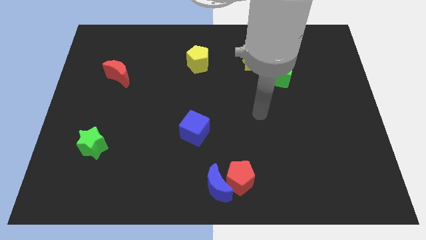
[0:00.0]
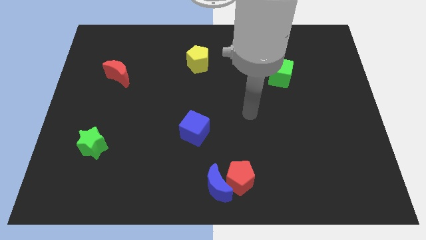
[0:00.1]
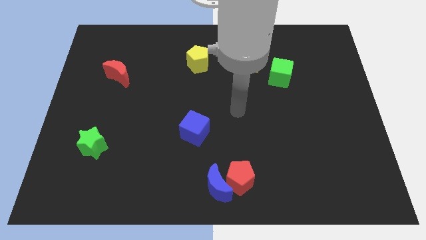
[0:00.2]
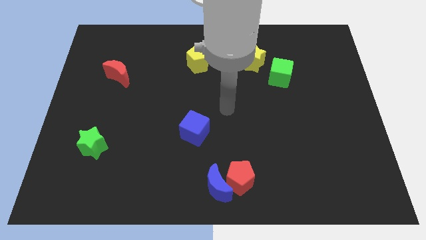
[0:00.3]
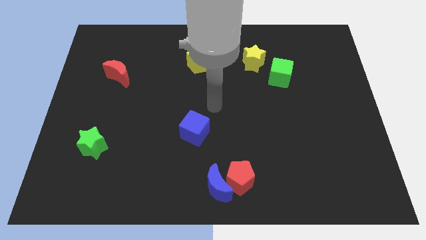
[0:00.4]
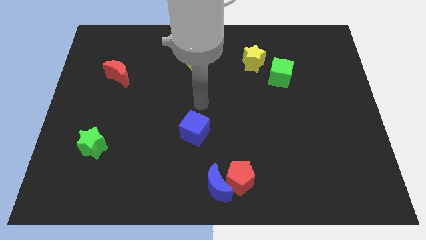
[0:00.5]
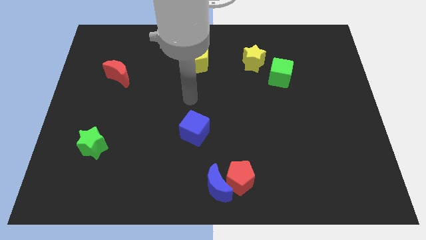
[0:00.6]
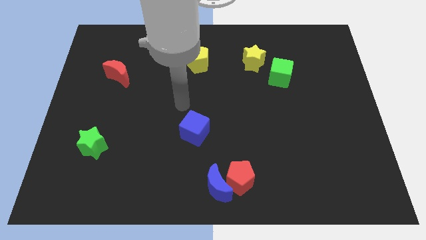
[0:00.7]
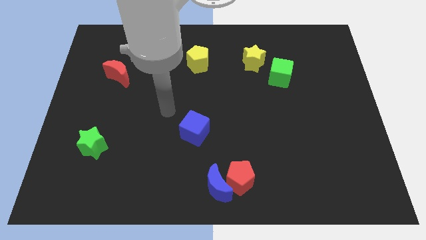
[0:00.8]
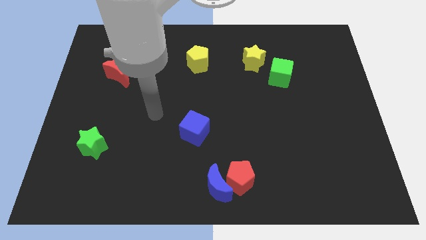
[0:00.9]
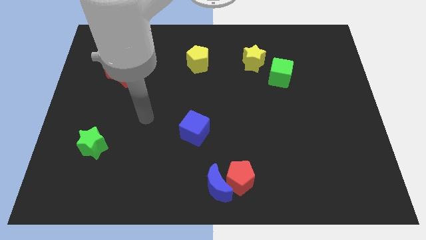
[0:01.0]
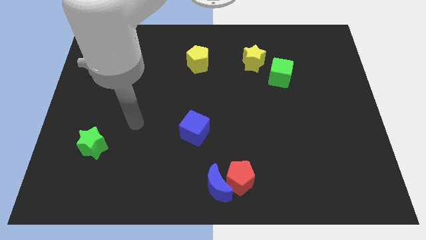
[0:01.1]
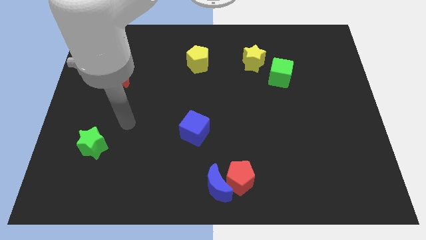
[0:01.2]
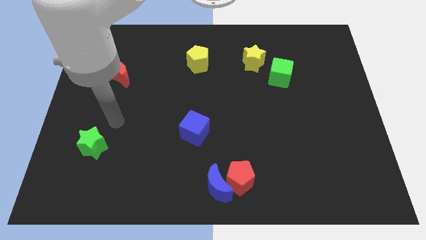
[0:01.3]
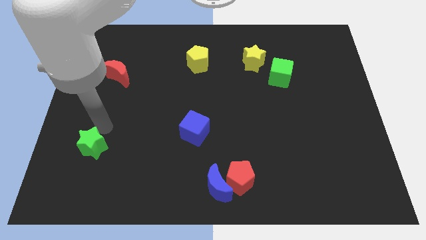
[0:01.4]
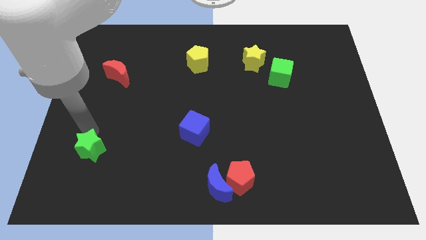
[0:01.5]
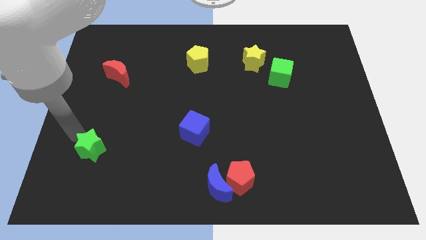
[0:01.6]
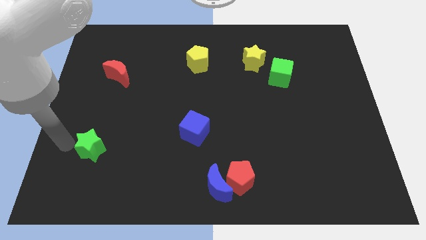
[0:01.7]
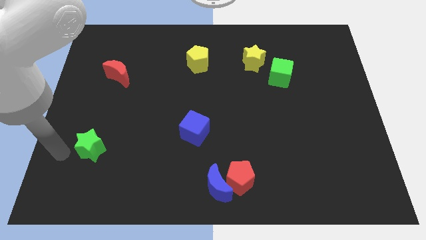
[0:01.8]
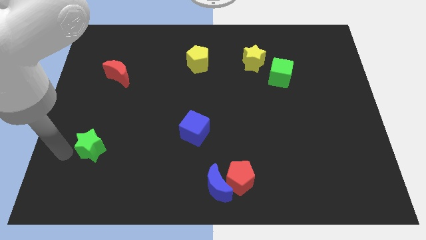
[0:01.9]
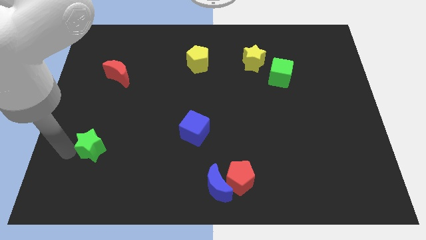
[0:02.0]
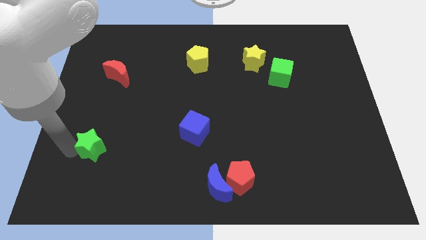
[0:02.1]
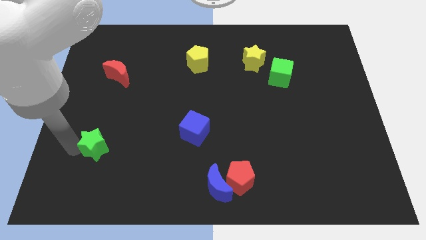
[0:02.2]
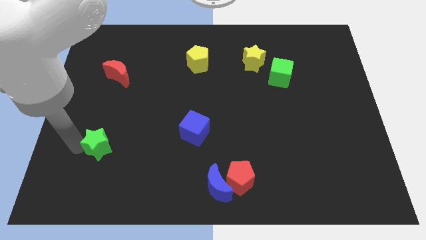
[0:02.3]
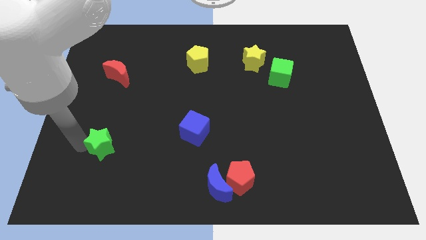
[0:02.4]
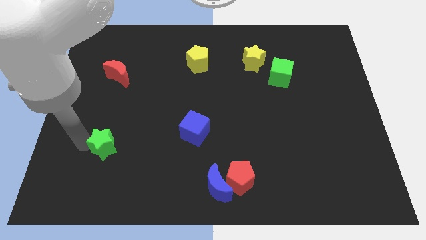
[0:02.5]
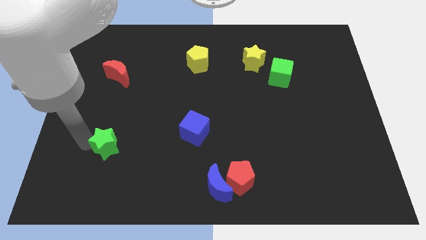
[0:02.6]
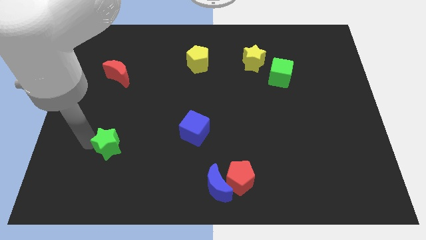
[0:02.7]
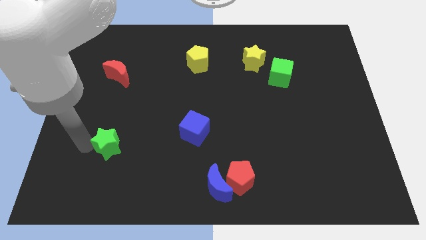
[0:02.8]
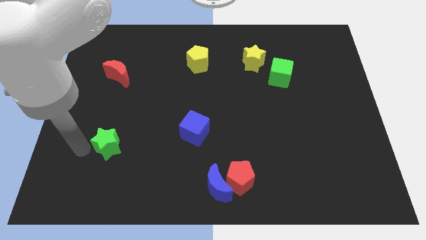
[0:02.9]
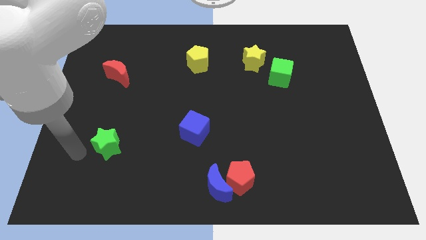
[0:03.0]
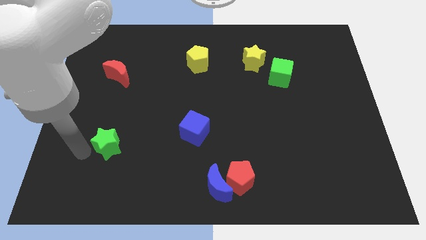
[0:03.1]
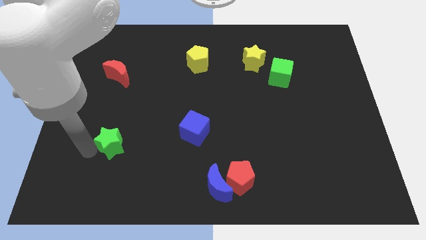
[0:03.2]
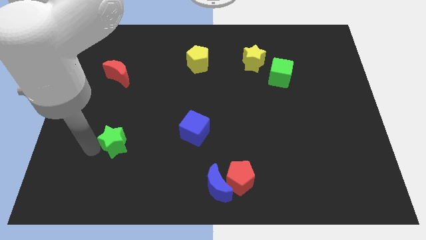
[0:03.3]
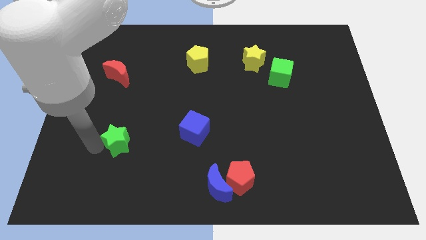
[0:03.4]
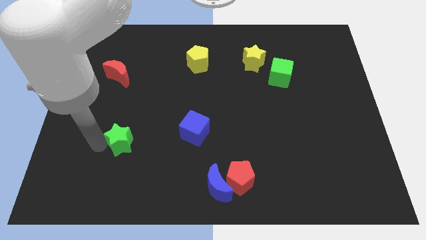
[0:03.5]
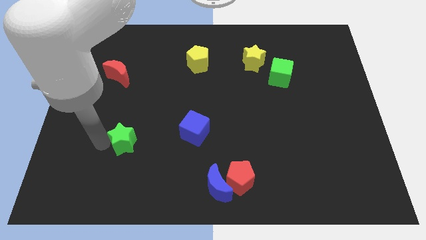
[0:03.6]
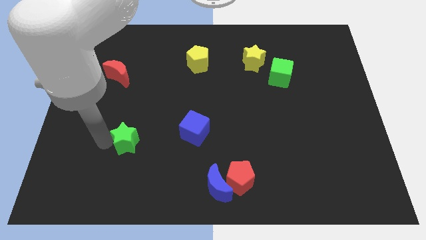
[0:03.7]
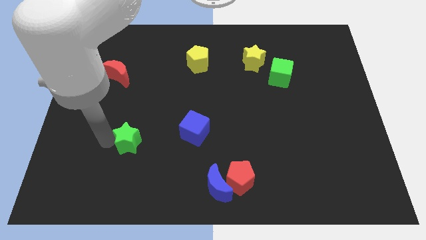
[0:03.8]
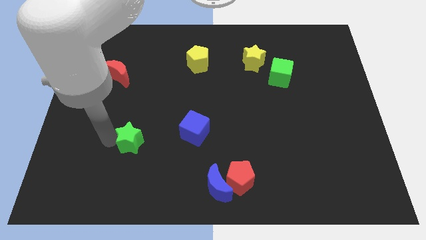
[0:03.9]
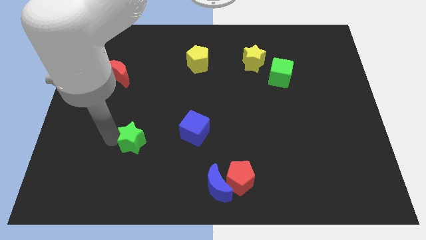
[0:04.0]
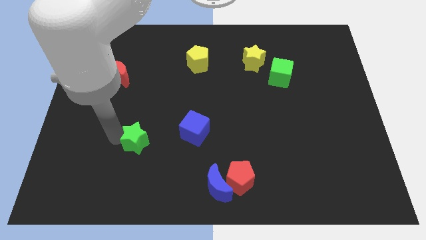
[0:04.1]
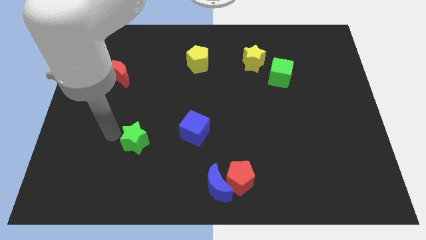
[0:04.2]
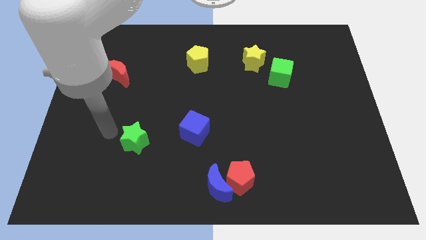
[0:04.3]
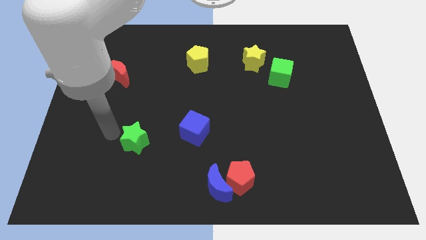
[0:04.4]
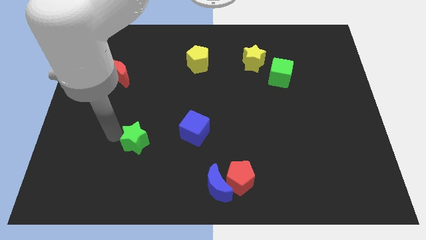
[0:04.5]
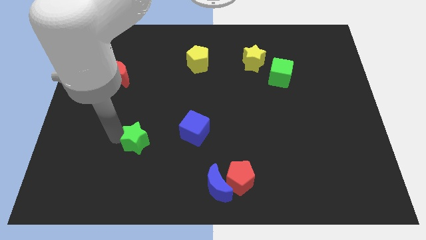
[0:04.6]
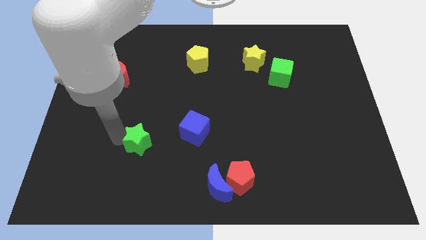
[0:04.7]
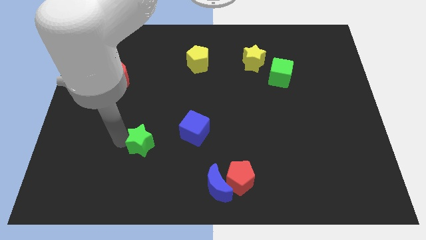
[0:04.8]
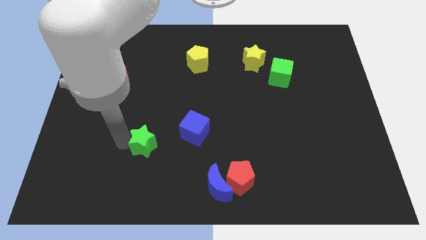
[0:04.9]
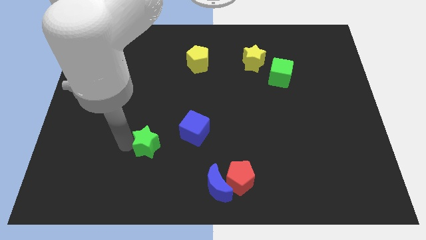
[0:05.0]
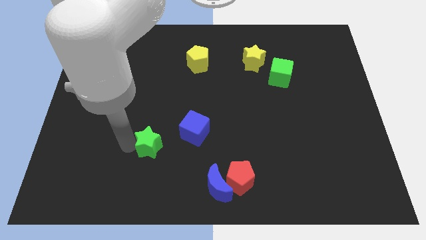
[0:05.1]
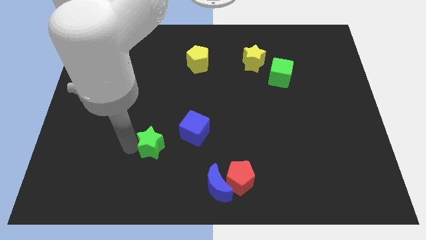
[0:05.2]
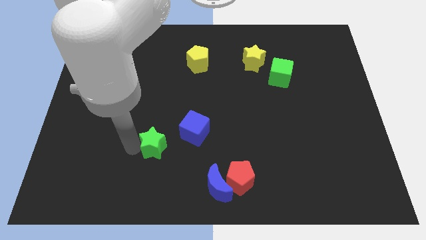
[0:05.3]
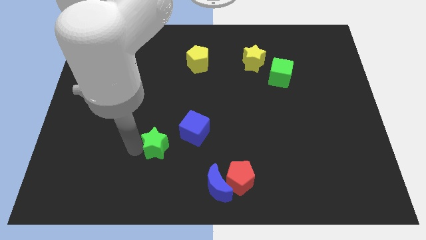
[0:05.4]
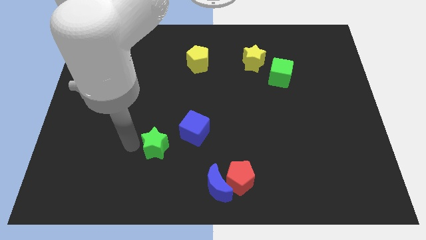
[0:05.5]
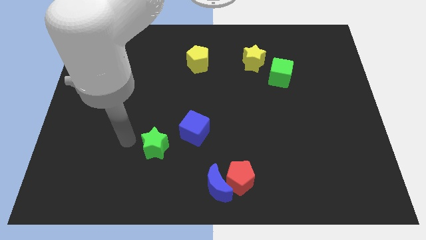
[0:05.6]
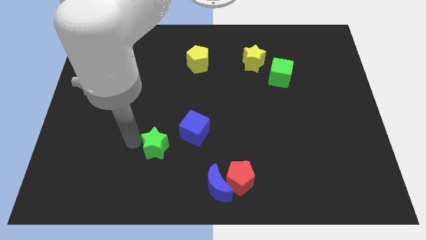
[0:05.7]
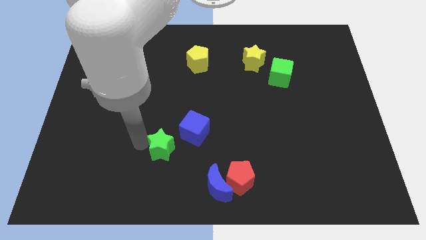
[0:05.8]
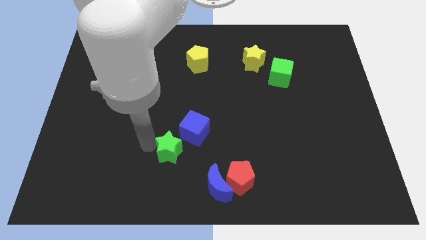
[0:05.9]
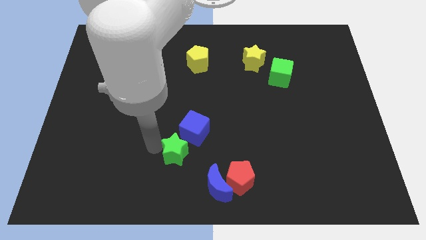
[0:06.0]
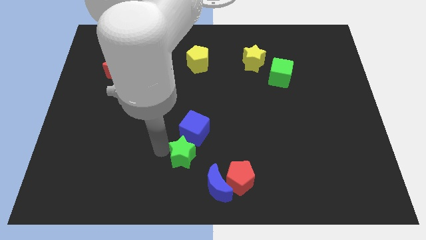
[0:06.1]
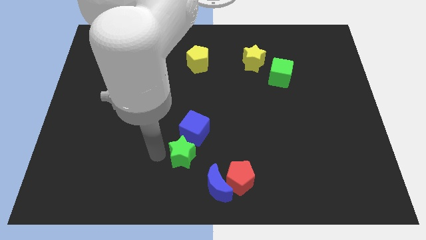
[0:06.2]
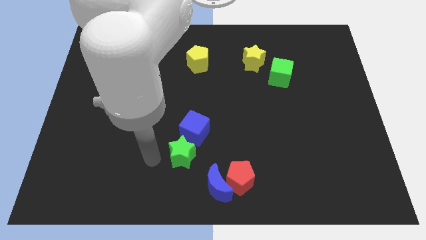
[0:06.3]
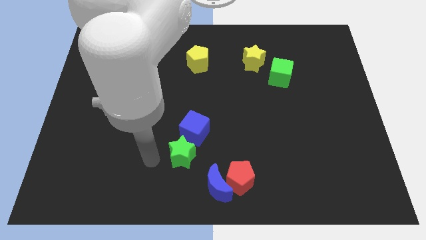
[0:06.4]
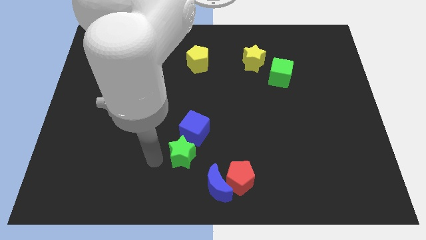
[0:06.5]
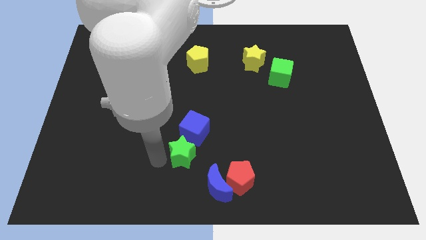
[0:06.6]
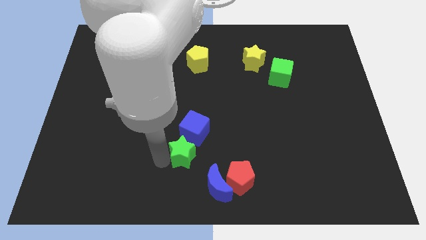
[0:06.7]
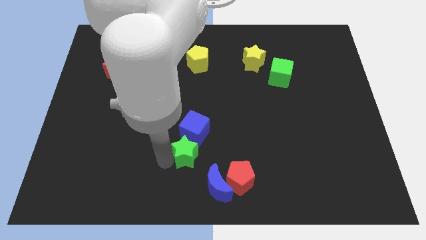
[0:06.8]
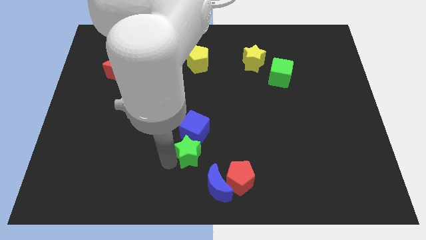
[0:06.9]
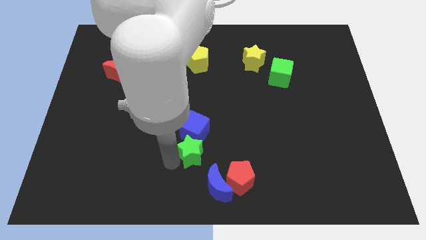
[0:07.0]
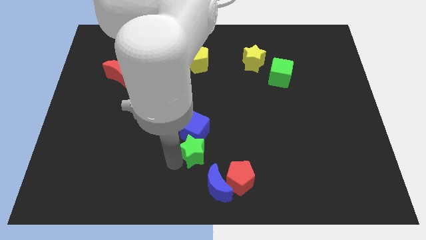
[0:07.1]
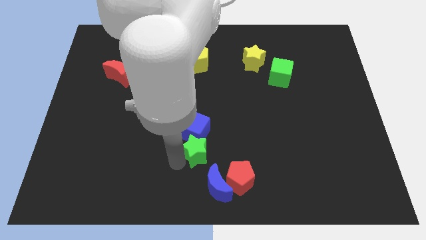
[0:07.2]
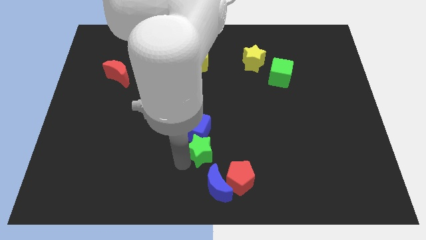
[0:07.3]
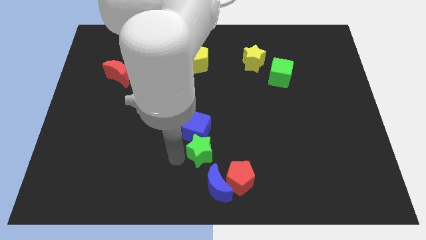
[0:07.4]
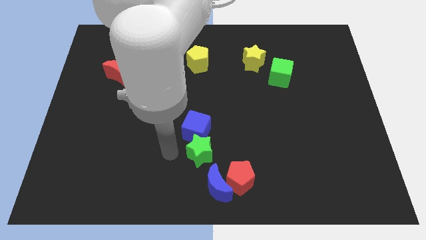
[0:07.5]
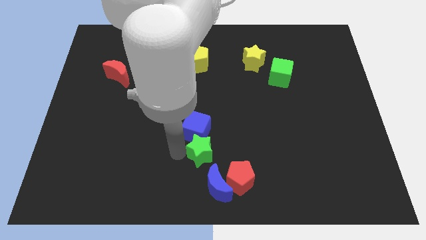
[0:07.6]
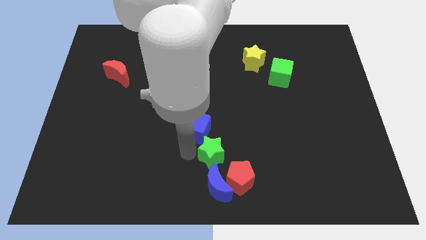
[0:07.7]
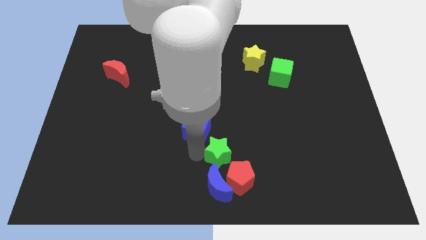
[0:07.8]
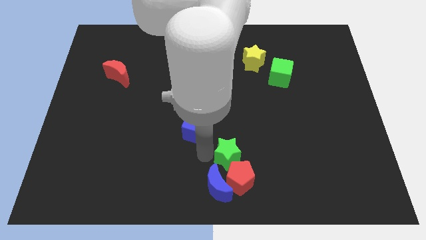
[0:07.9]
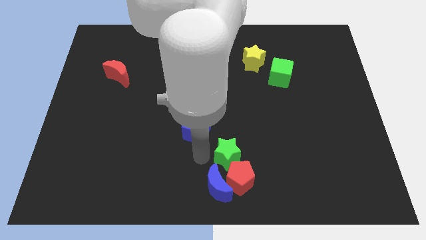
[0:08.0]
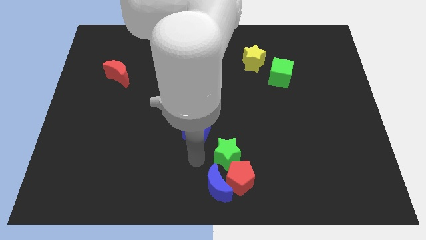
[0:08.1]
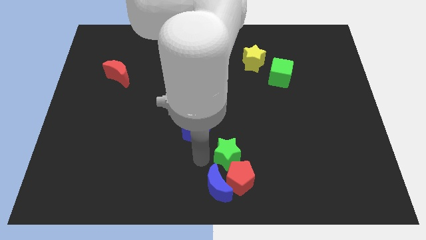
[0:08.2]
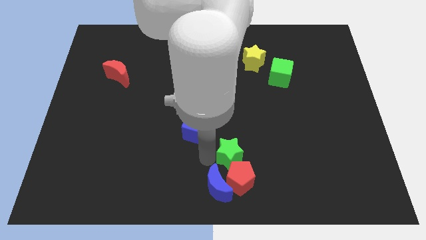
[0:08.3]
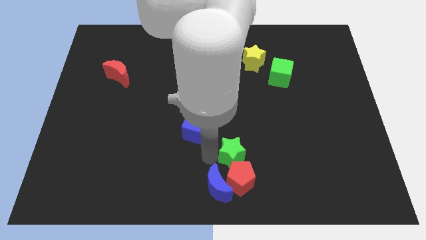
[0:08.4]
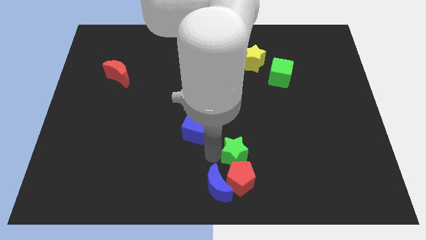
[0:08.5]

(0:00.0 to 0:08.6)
move the green star to the top right of the red pentagon
